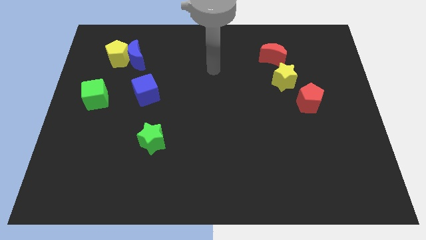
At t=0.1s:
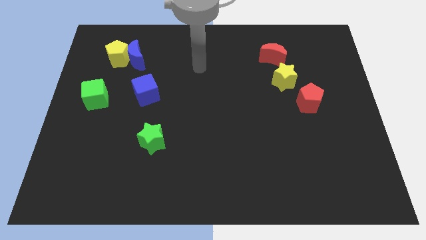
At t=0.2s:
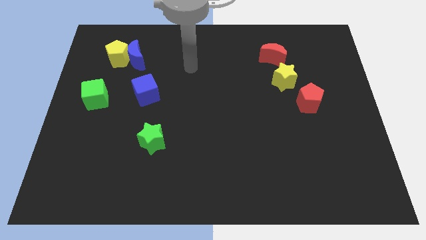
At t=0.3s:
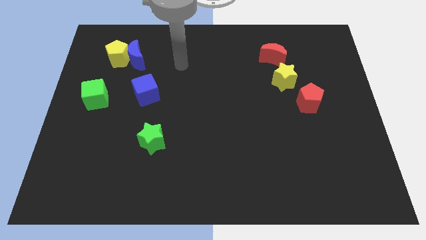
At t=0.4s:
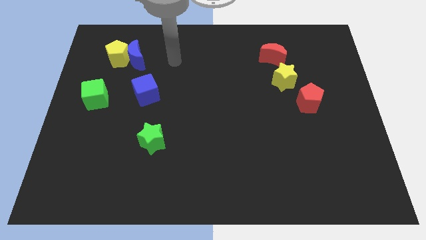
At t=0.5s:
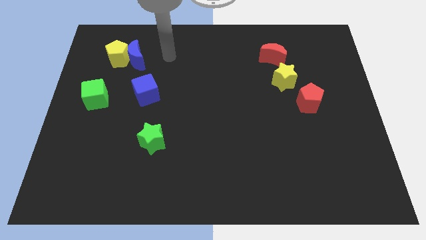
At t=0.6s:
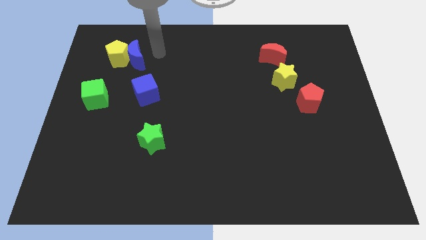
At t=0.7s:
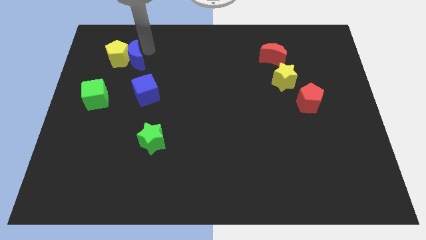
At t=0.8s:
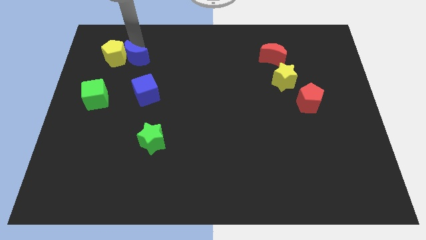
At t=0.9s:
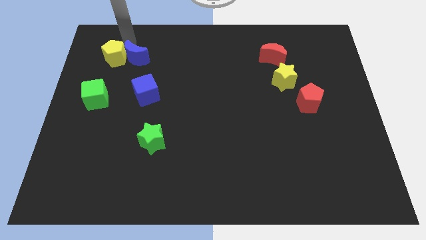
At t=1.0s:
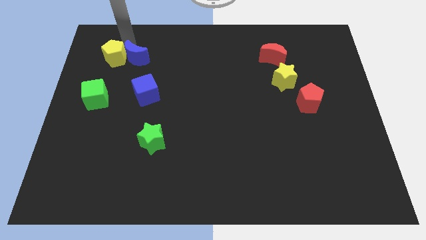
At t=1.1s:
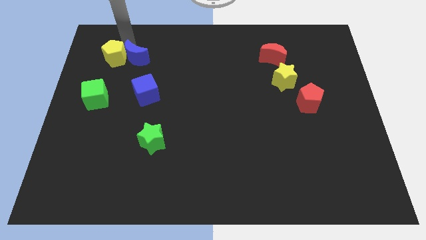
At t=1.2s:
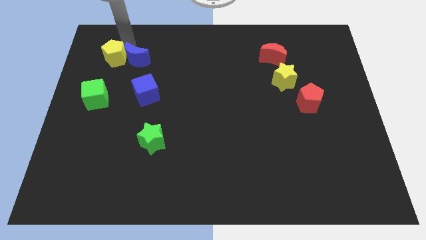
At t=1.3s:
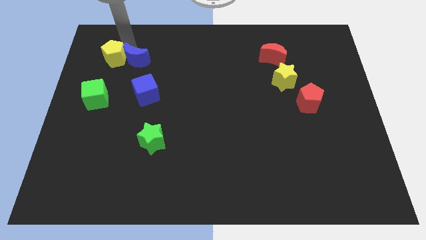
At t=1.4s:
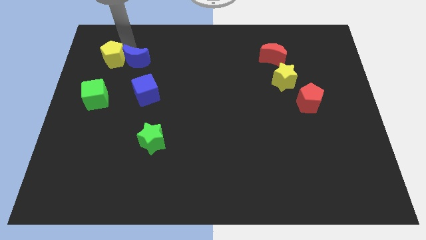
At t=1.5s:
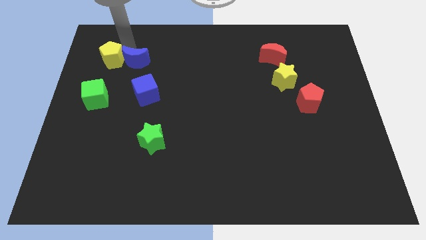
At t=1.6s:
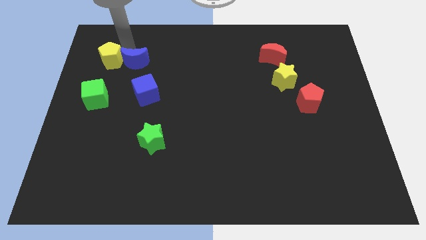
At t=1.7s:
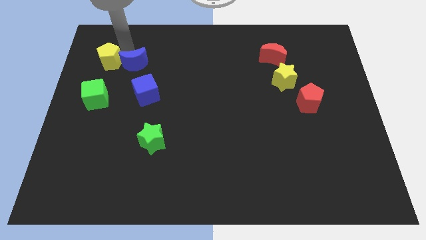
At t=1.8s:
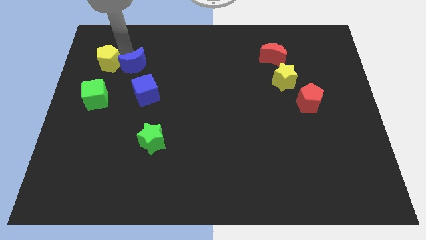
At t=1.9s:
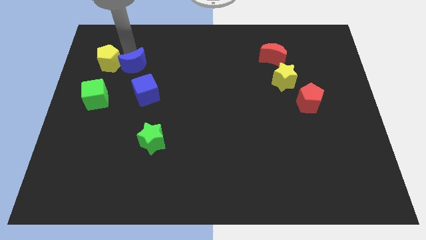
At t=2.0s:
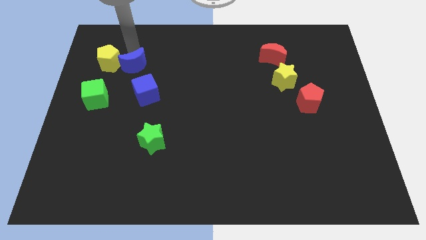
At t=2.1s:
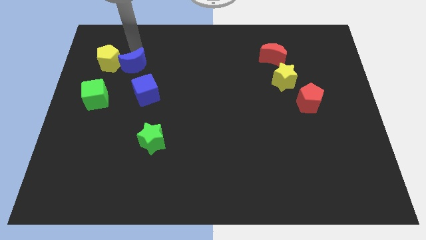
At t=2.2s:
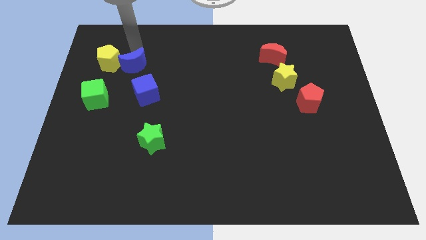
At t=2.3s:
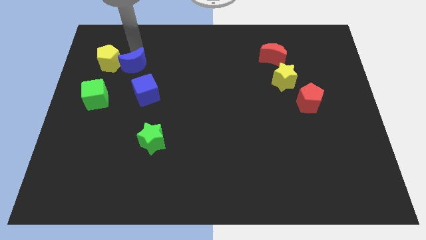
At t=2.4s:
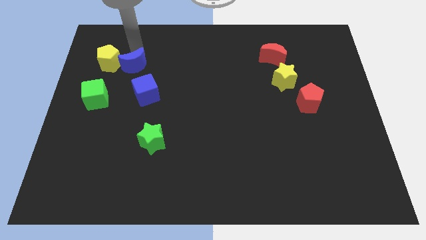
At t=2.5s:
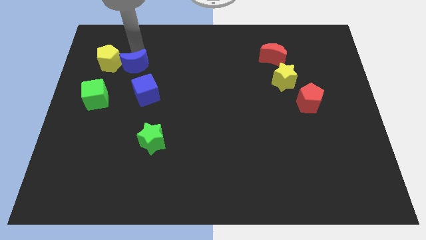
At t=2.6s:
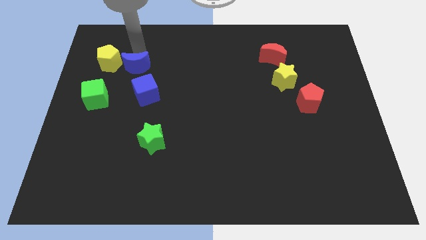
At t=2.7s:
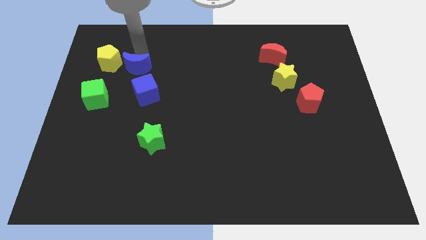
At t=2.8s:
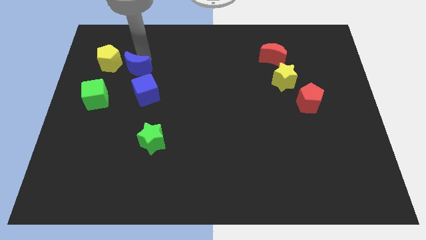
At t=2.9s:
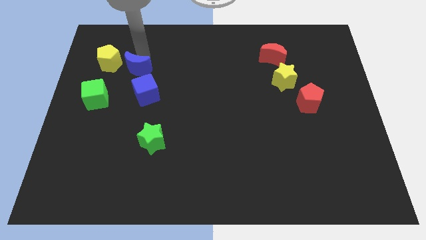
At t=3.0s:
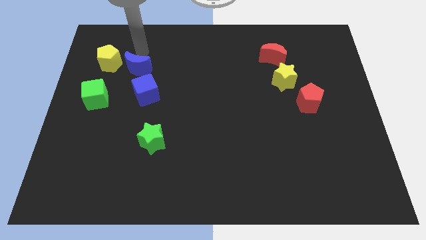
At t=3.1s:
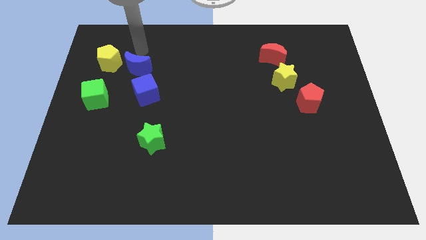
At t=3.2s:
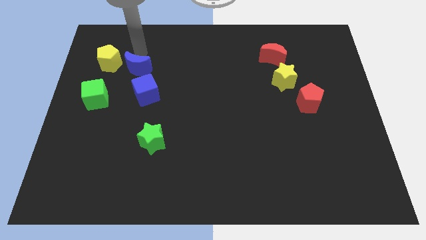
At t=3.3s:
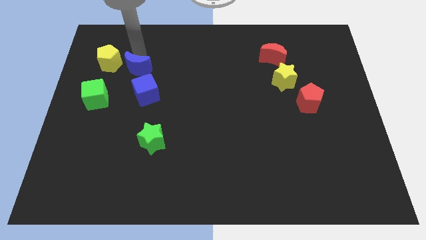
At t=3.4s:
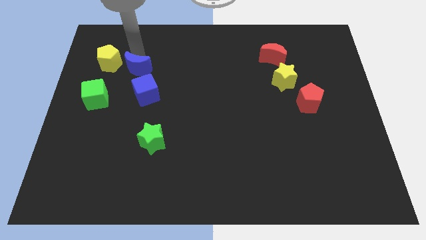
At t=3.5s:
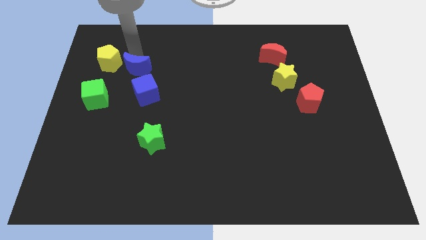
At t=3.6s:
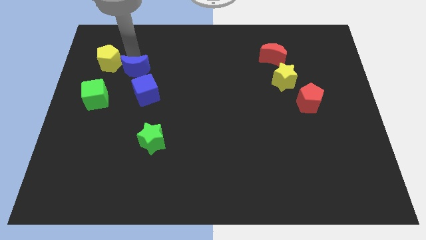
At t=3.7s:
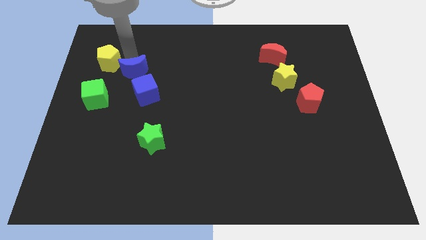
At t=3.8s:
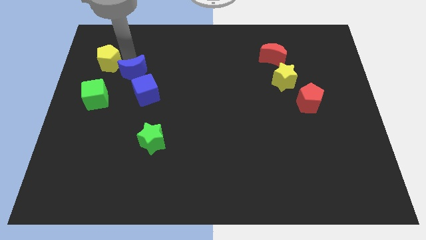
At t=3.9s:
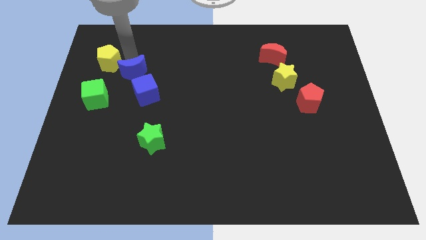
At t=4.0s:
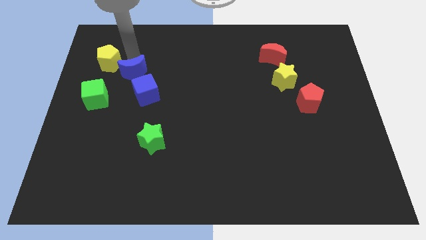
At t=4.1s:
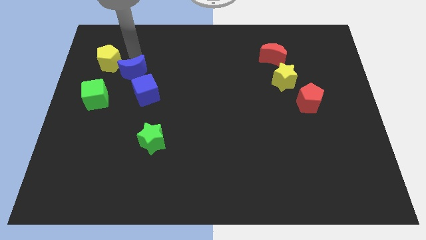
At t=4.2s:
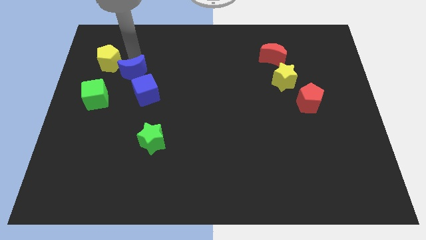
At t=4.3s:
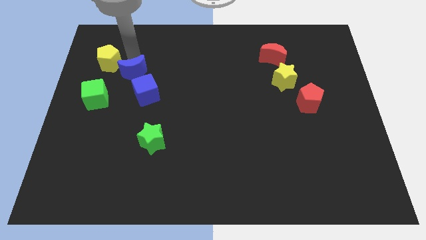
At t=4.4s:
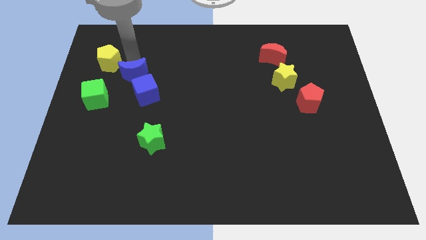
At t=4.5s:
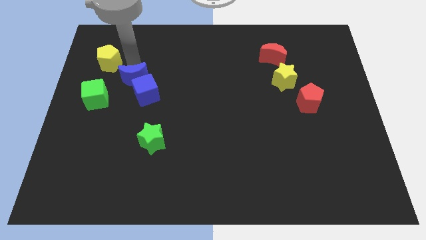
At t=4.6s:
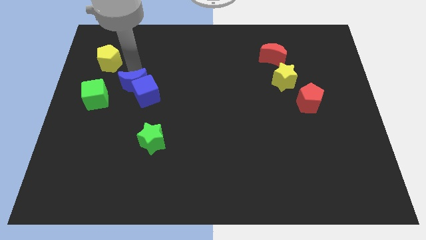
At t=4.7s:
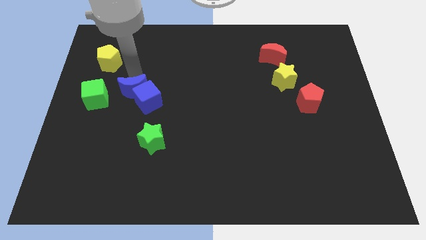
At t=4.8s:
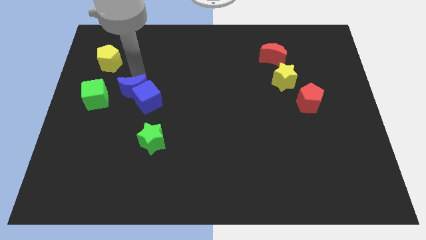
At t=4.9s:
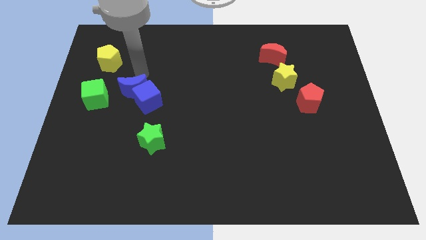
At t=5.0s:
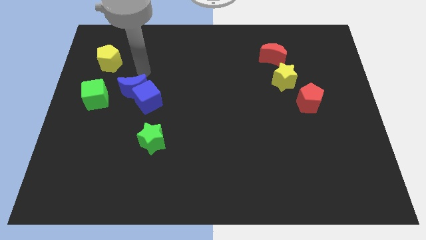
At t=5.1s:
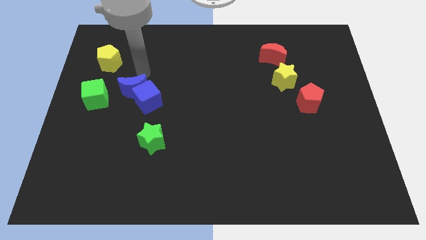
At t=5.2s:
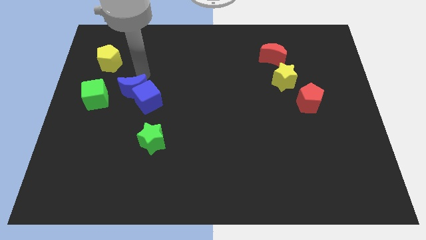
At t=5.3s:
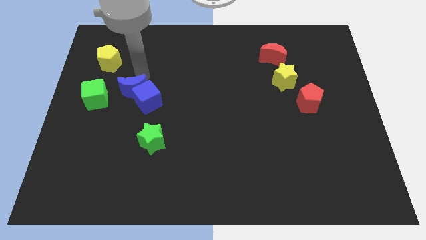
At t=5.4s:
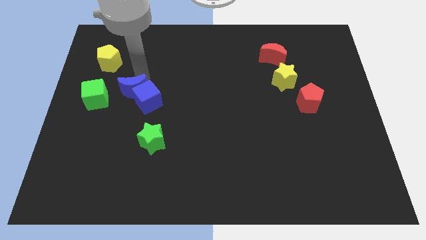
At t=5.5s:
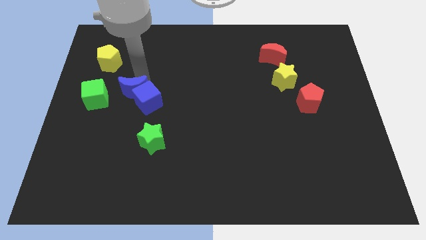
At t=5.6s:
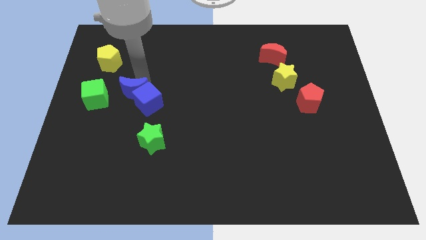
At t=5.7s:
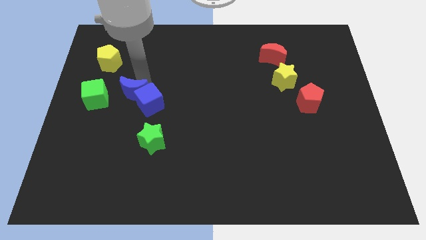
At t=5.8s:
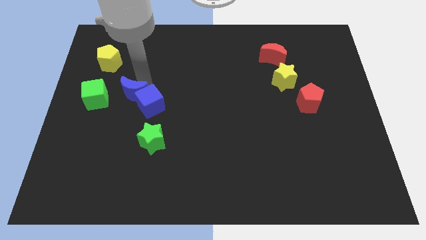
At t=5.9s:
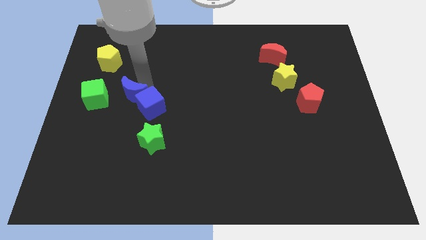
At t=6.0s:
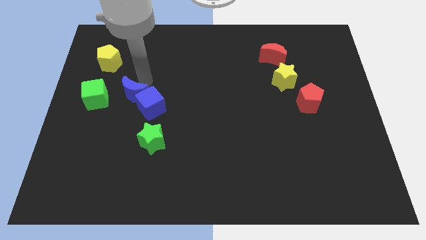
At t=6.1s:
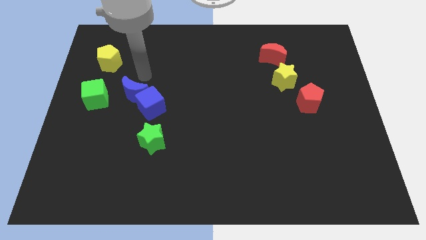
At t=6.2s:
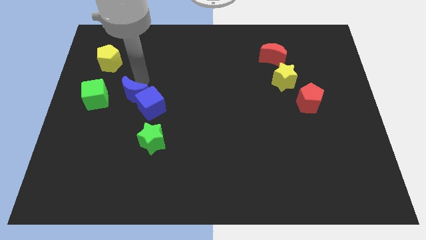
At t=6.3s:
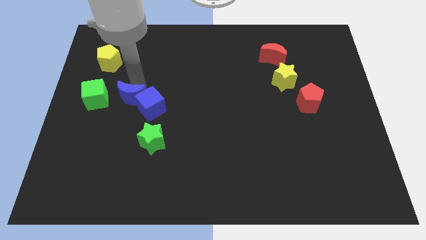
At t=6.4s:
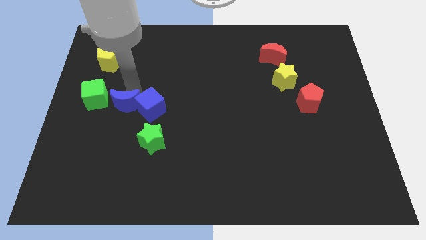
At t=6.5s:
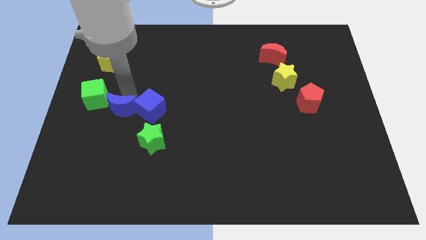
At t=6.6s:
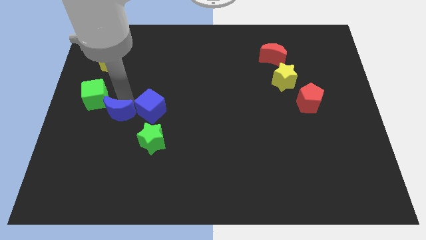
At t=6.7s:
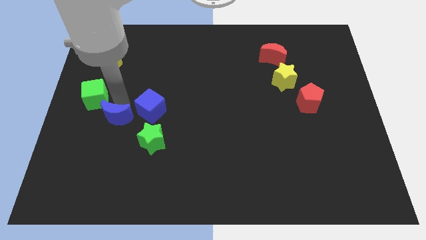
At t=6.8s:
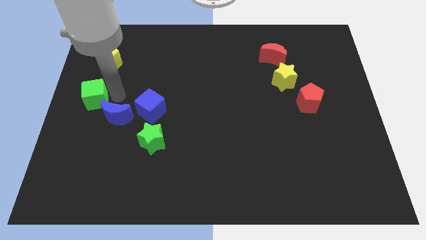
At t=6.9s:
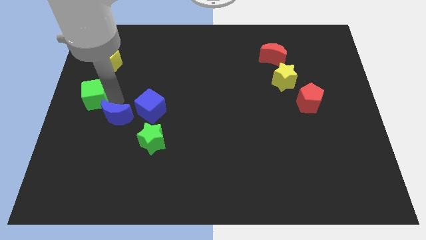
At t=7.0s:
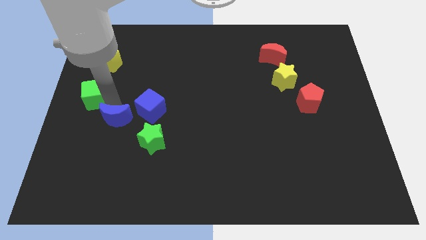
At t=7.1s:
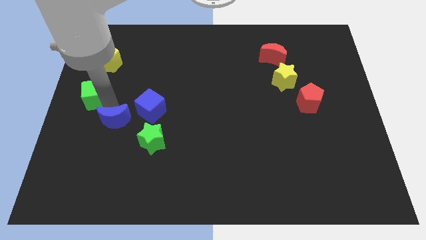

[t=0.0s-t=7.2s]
slide the blue moon down
